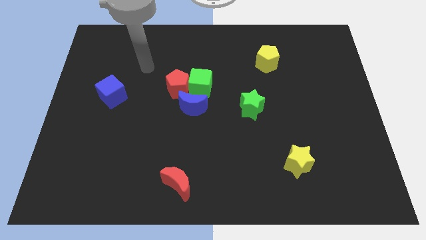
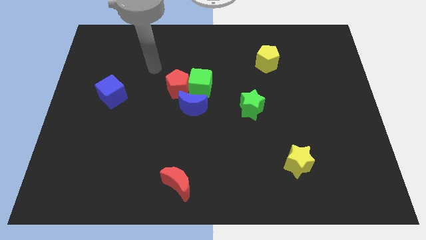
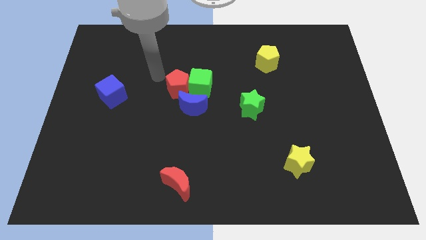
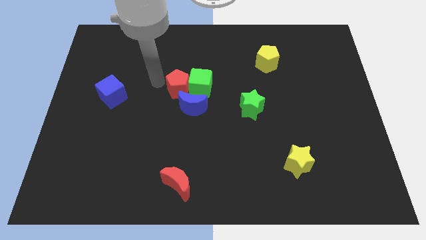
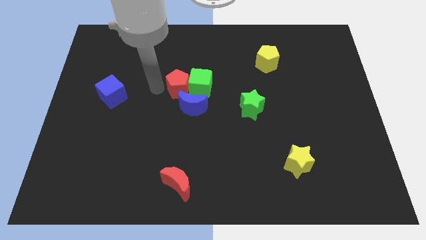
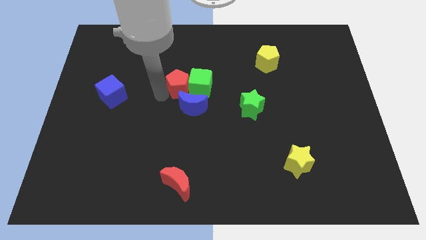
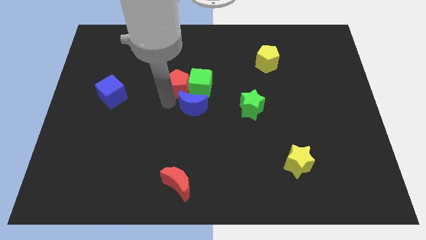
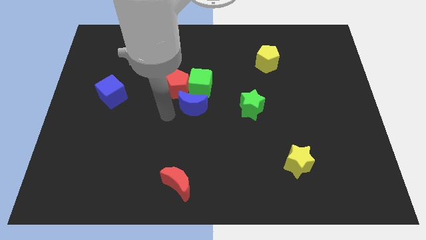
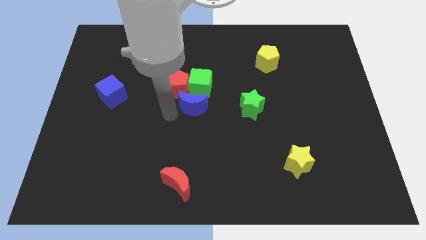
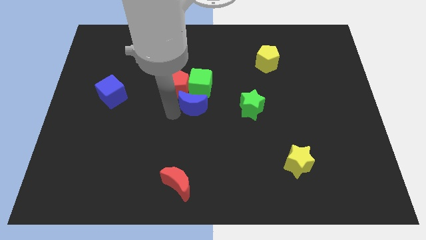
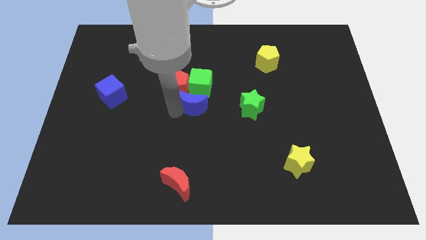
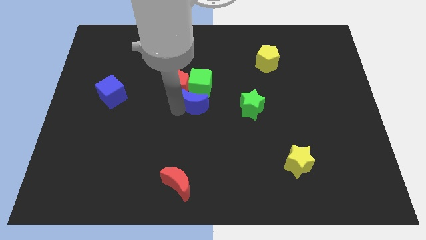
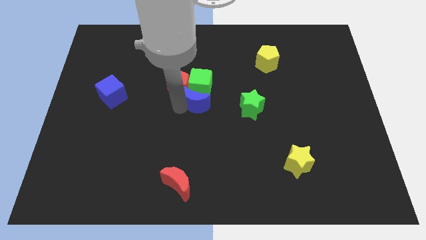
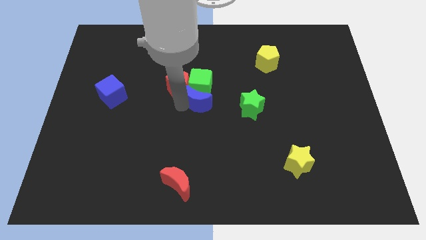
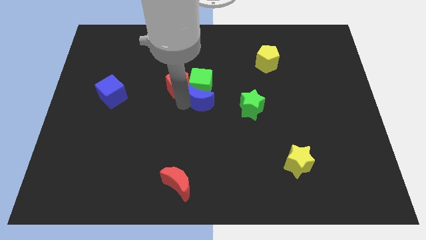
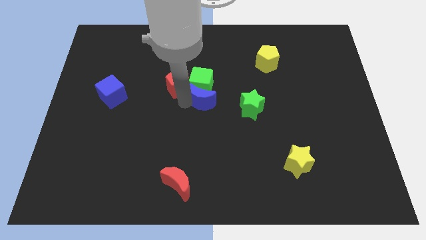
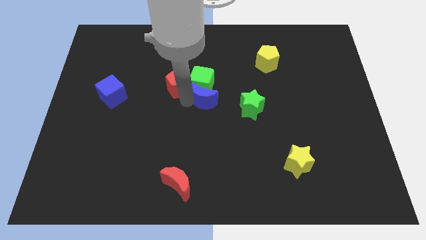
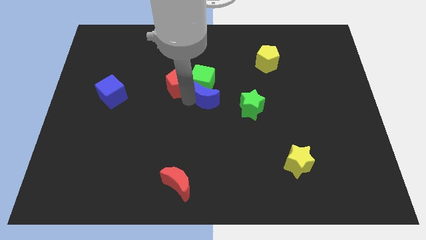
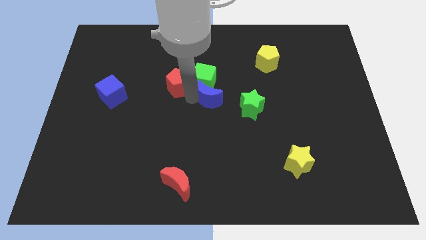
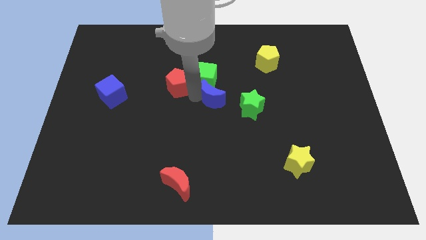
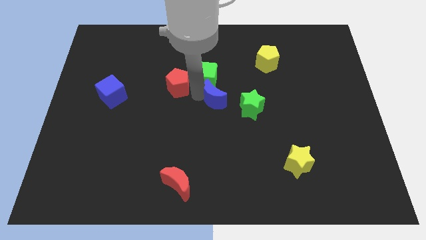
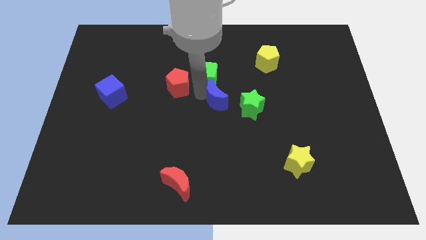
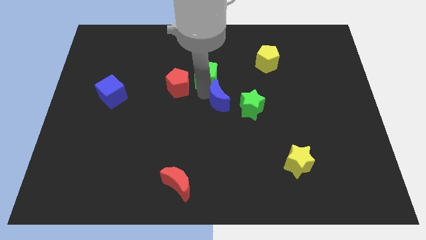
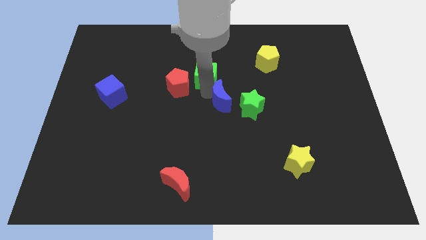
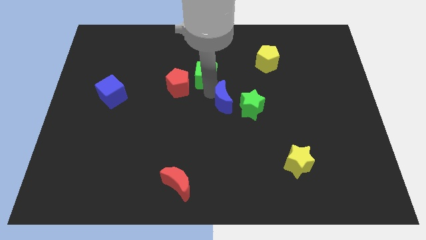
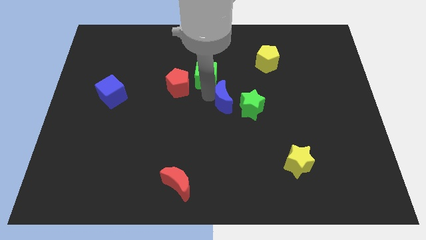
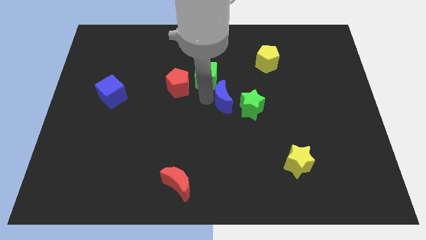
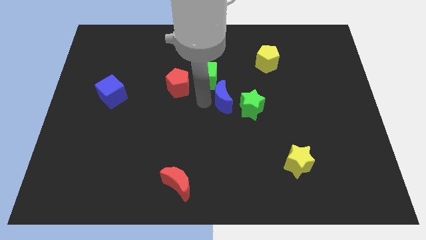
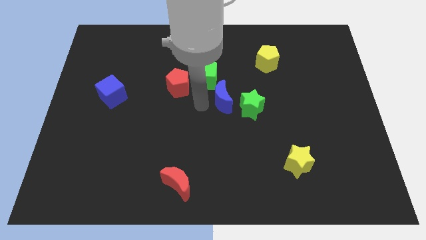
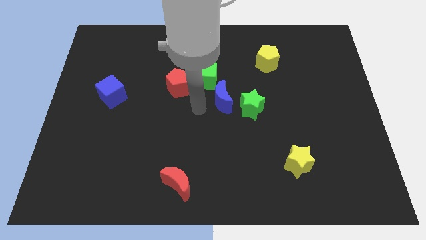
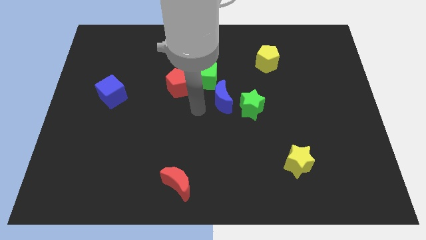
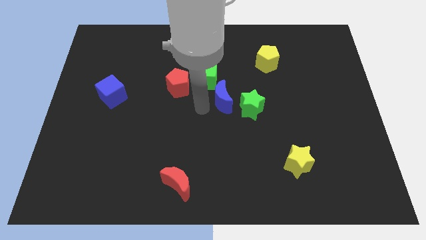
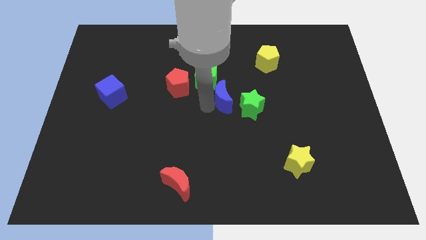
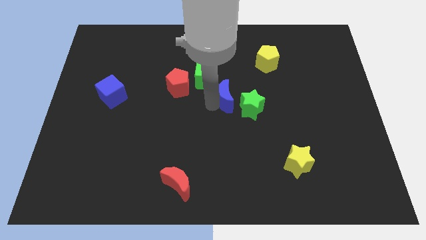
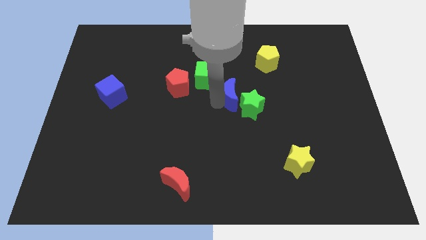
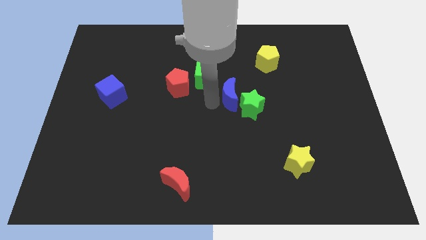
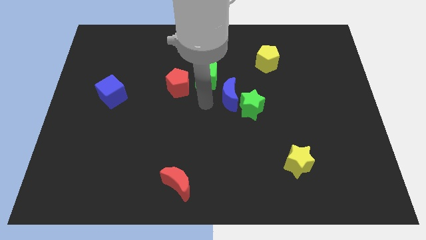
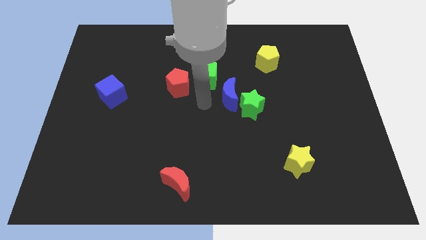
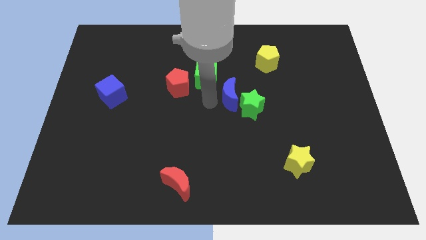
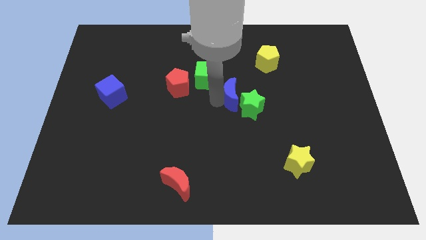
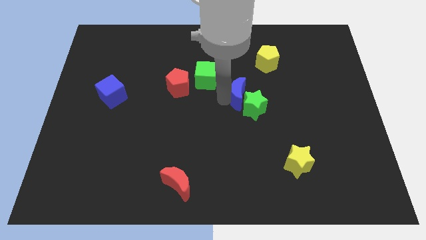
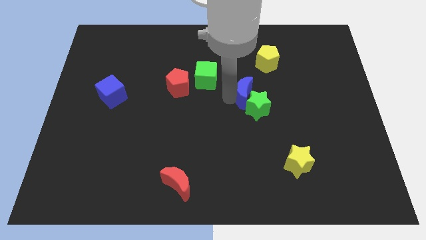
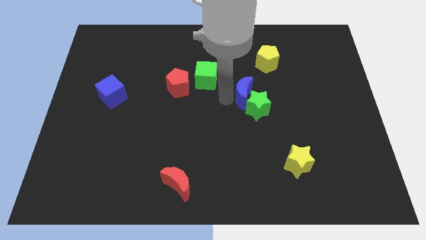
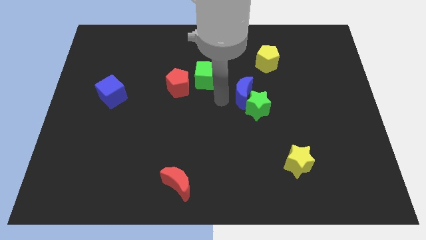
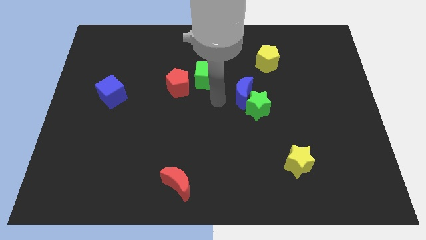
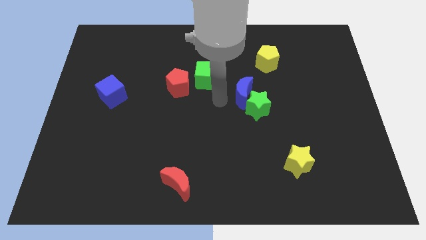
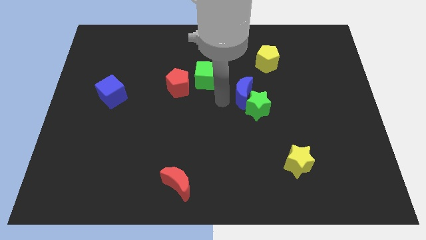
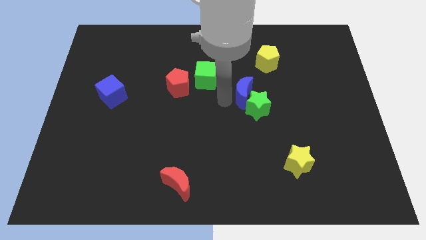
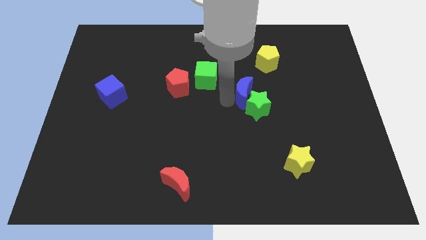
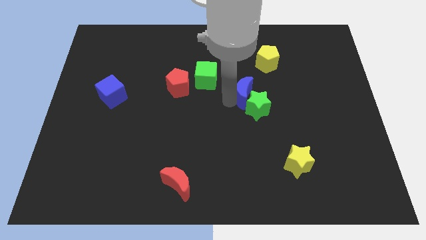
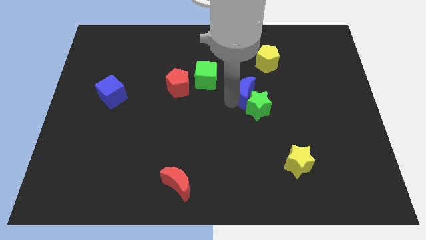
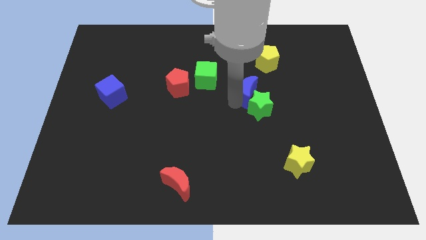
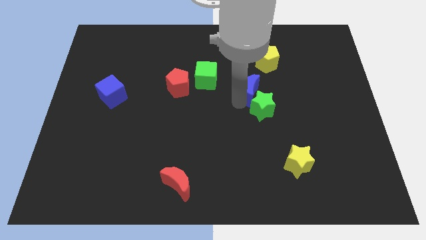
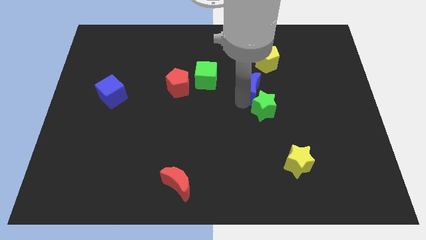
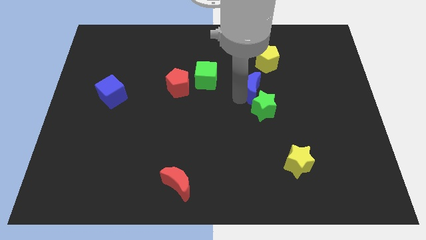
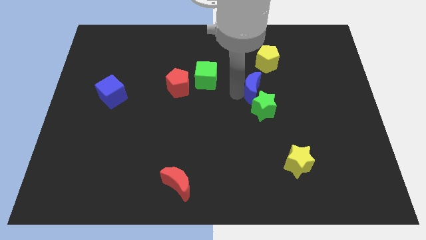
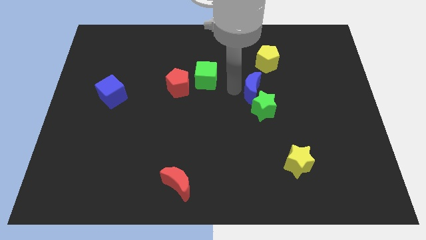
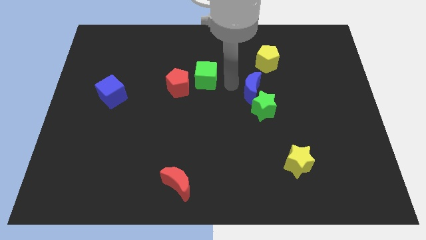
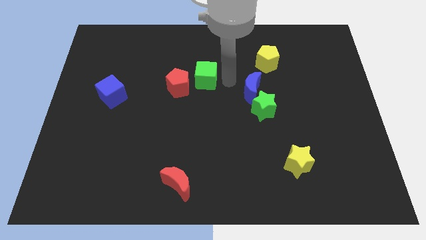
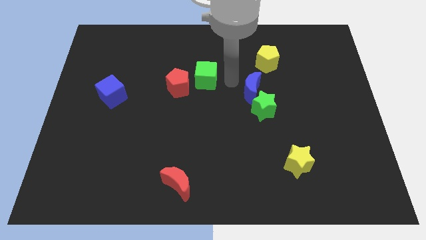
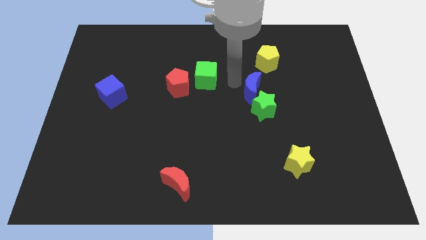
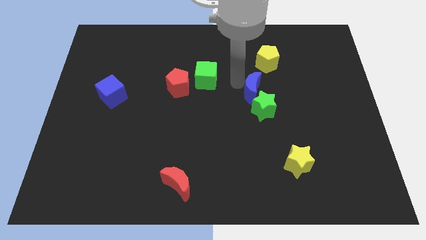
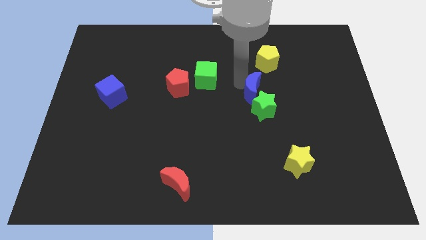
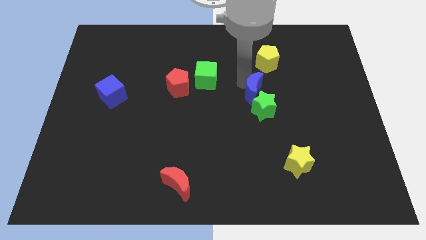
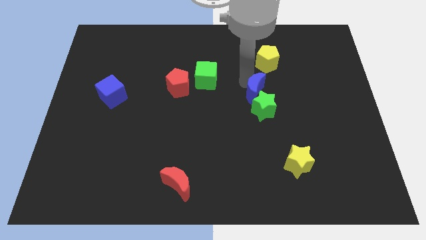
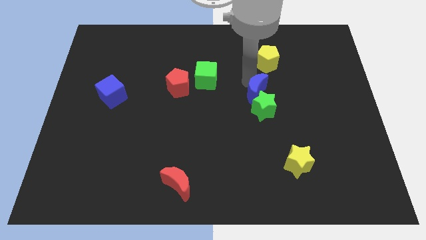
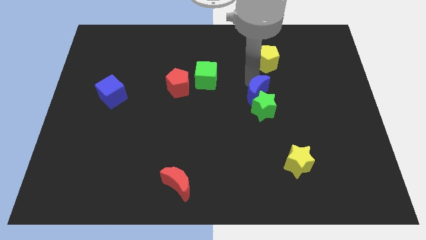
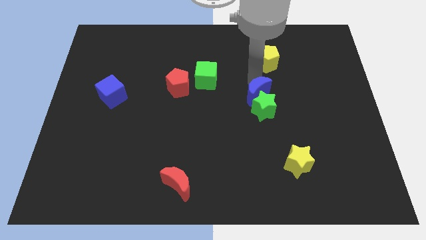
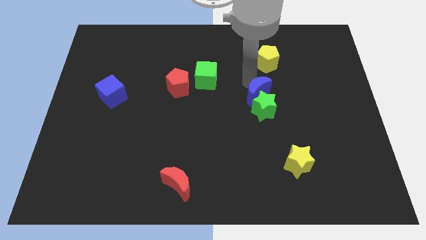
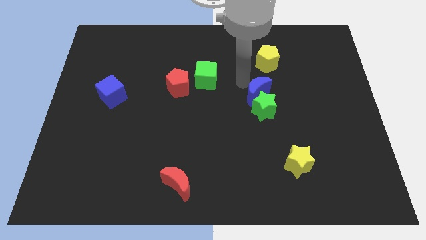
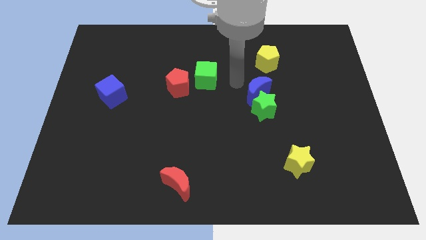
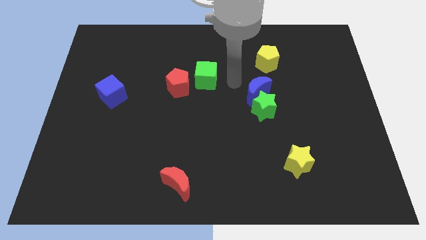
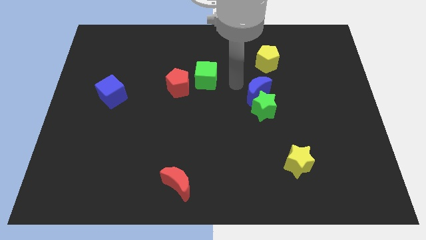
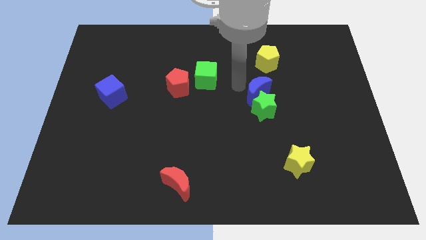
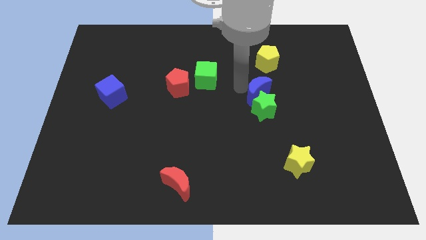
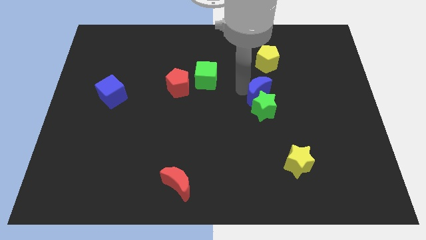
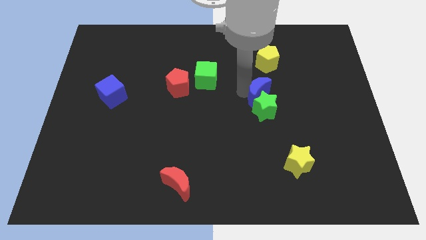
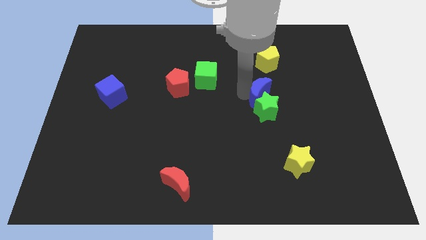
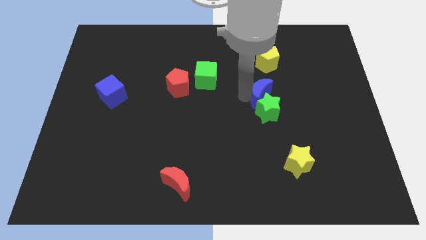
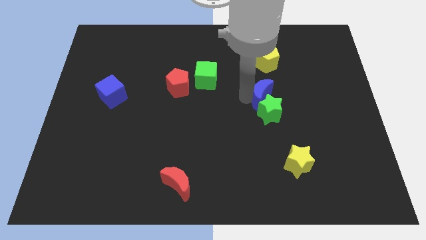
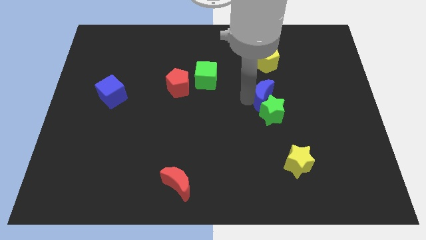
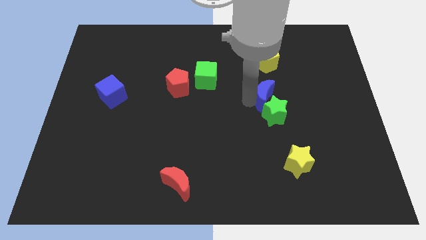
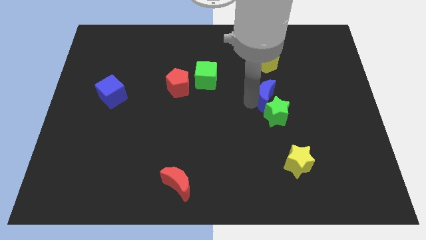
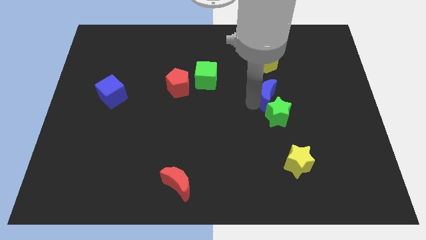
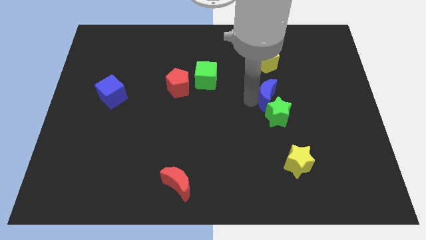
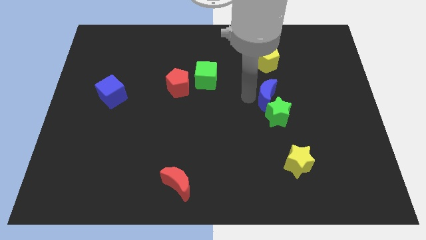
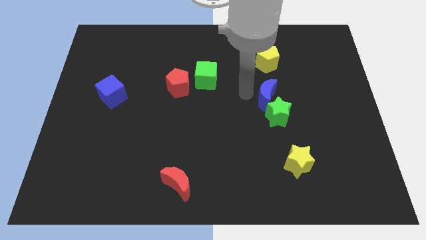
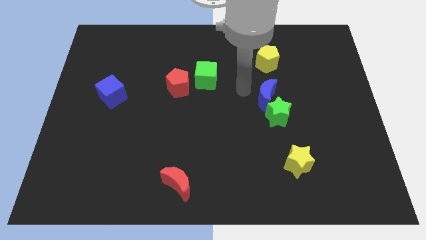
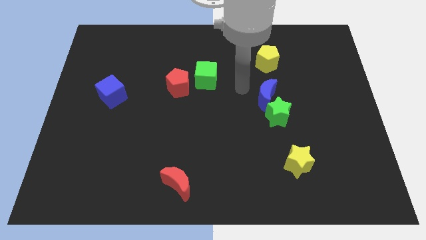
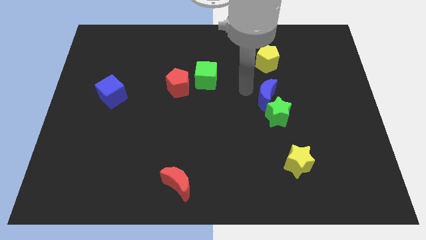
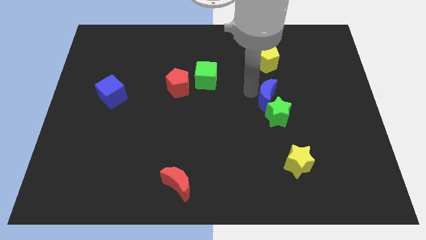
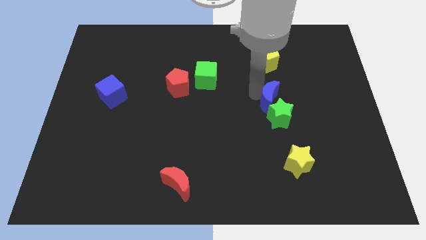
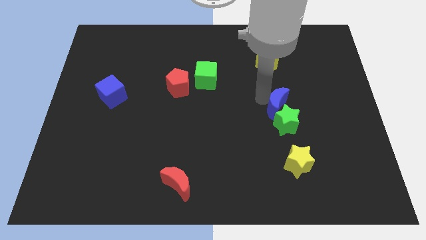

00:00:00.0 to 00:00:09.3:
slide the blue moon right
